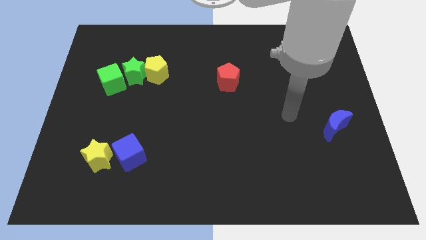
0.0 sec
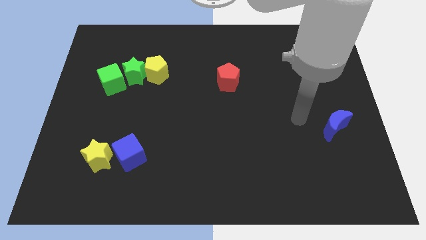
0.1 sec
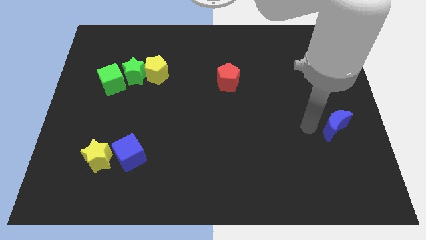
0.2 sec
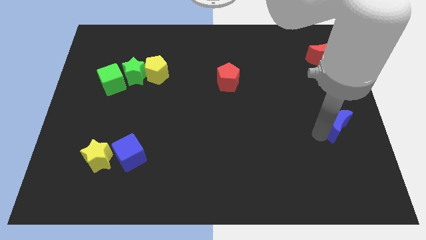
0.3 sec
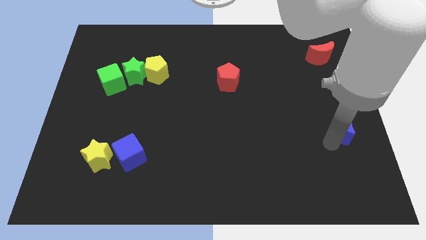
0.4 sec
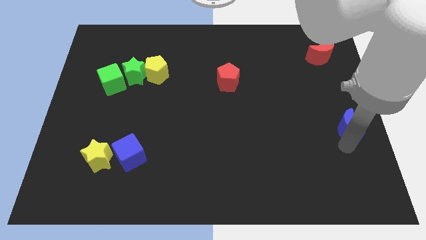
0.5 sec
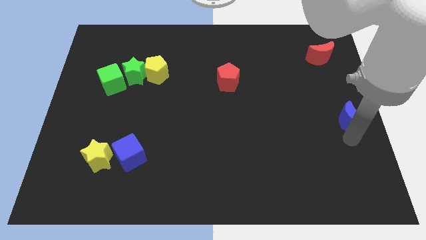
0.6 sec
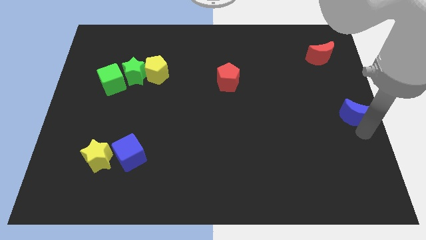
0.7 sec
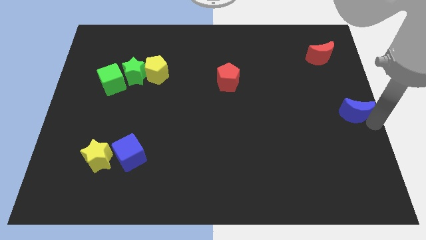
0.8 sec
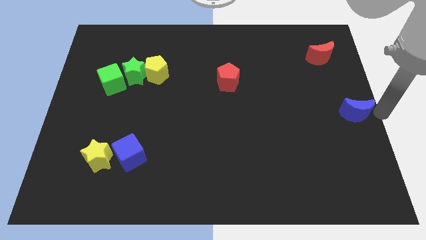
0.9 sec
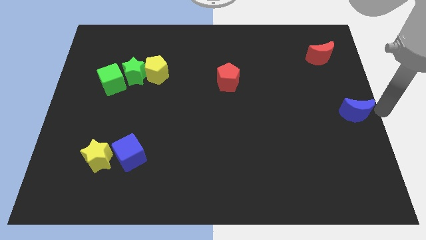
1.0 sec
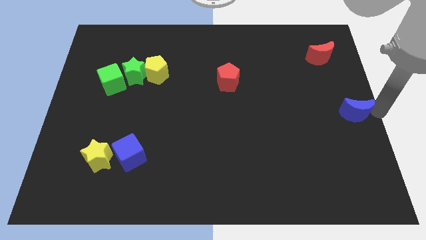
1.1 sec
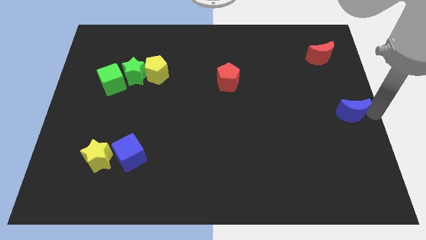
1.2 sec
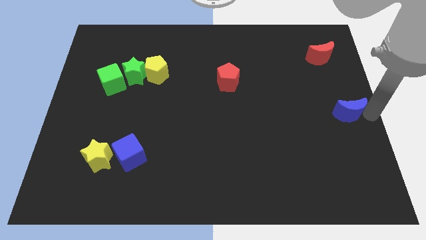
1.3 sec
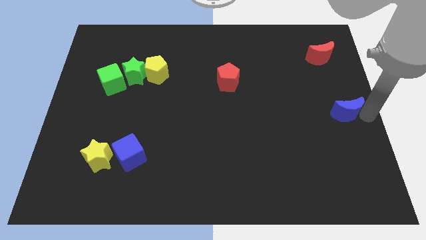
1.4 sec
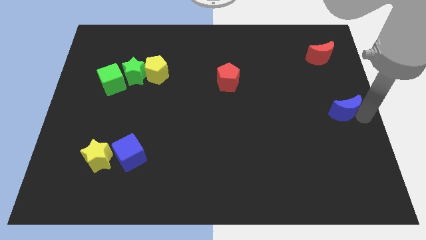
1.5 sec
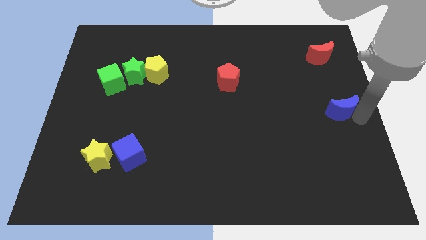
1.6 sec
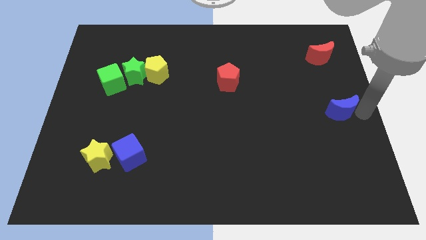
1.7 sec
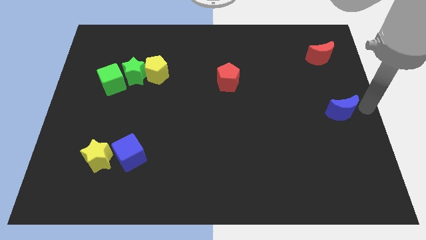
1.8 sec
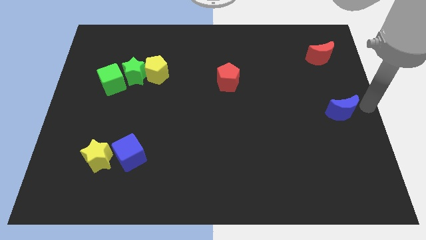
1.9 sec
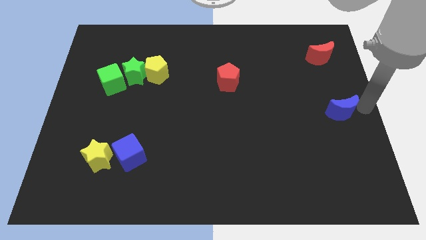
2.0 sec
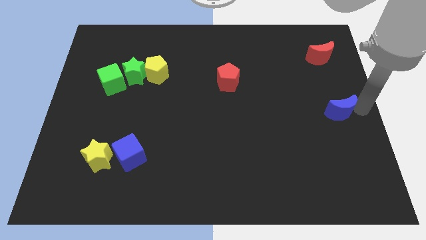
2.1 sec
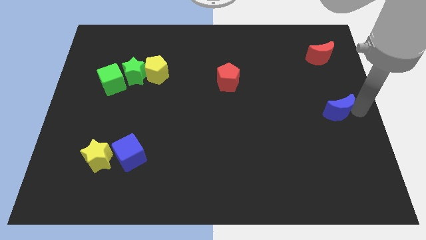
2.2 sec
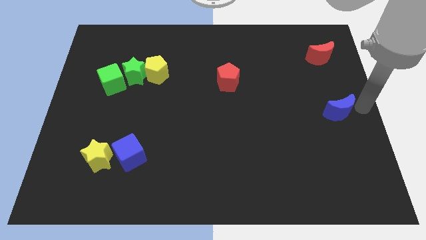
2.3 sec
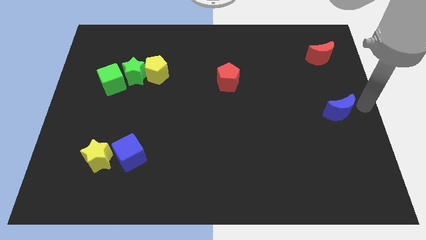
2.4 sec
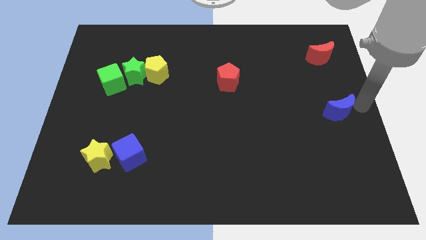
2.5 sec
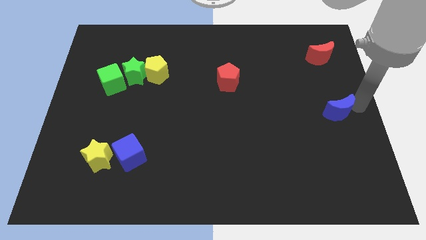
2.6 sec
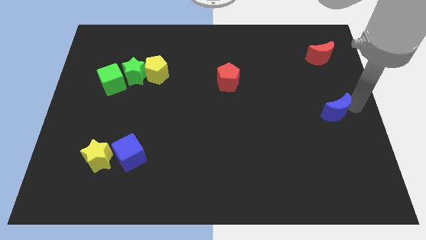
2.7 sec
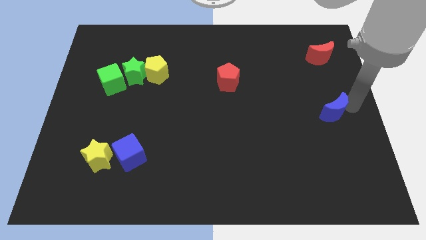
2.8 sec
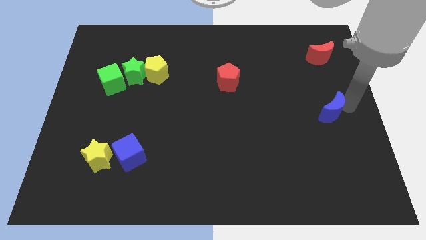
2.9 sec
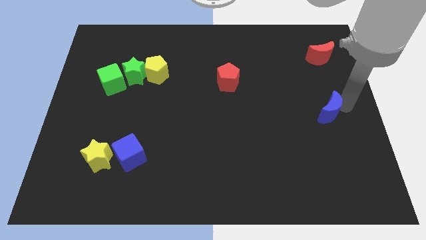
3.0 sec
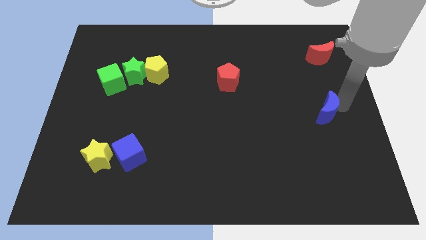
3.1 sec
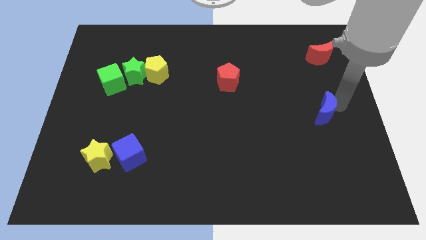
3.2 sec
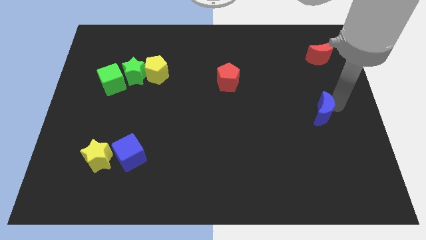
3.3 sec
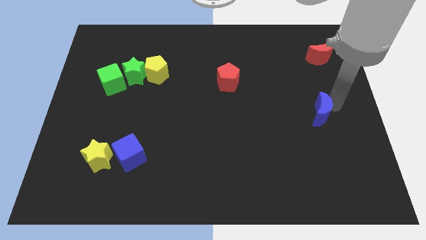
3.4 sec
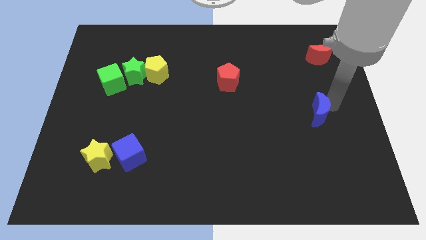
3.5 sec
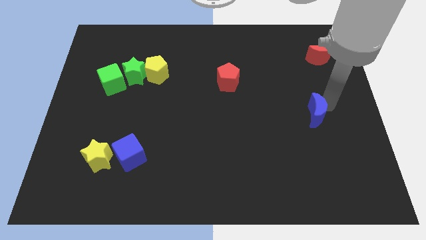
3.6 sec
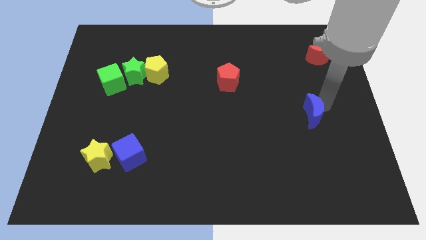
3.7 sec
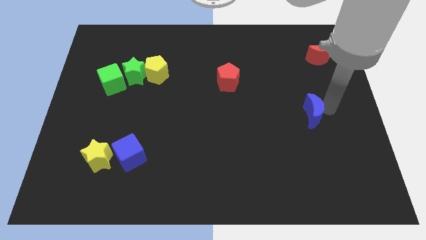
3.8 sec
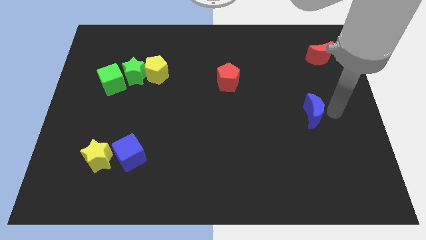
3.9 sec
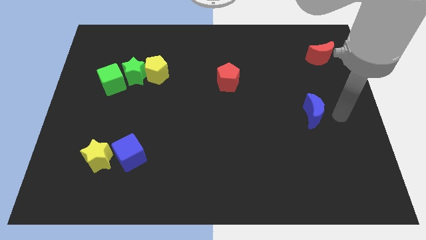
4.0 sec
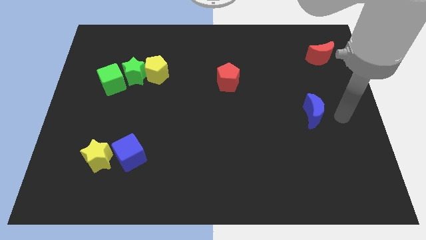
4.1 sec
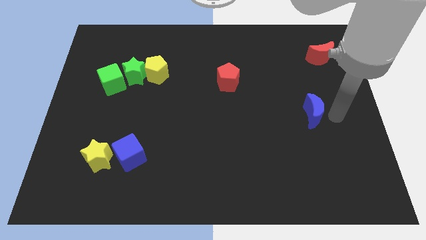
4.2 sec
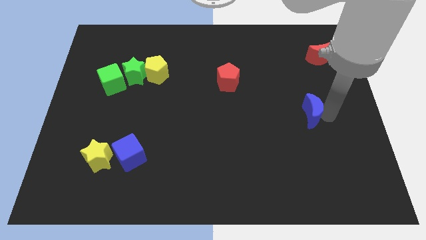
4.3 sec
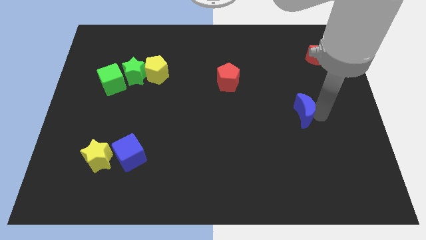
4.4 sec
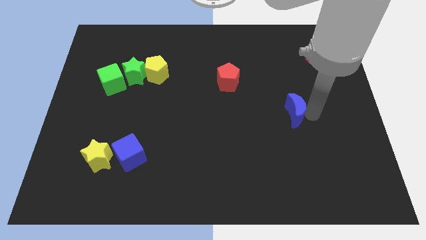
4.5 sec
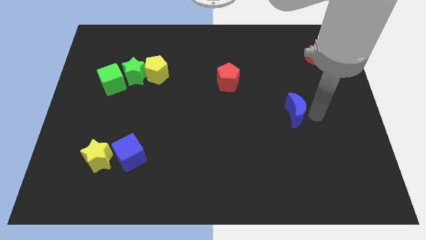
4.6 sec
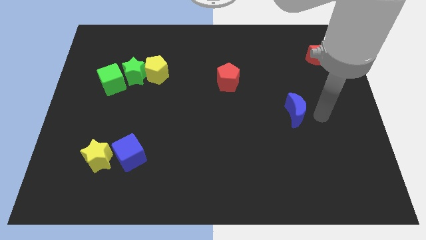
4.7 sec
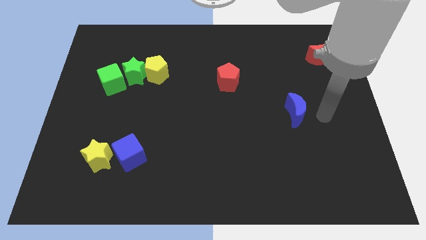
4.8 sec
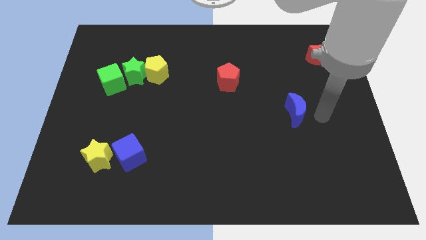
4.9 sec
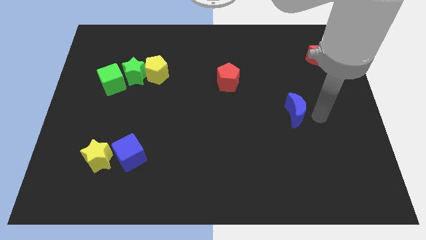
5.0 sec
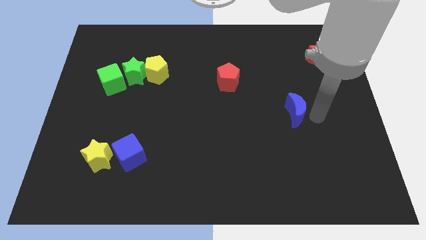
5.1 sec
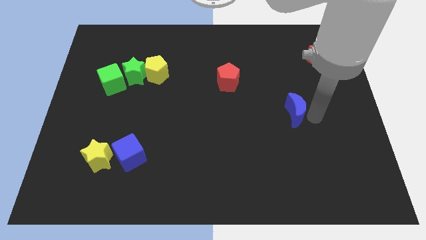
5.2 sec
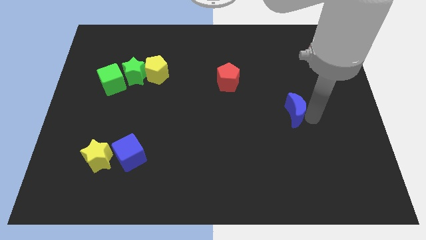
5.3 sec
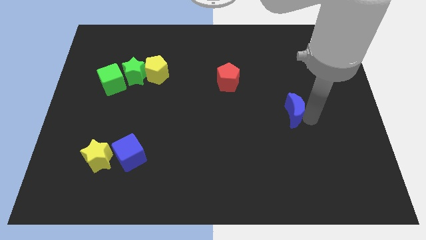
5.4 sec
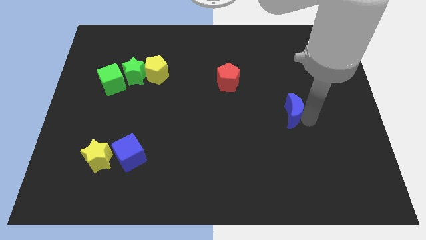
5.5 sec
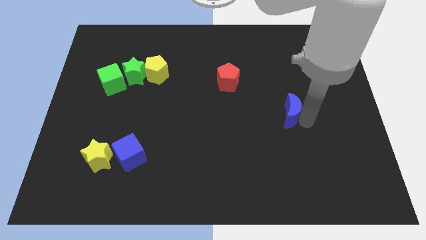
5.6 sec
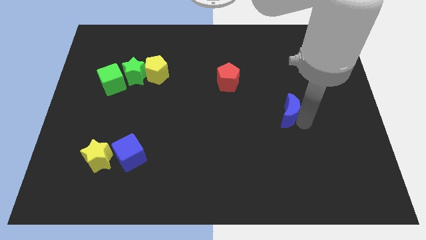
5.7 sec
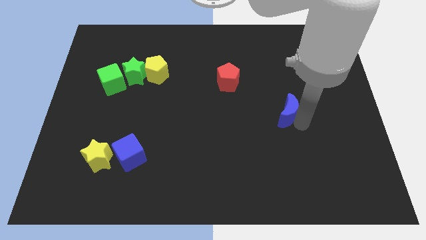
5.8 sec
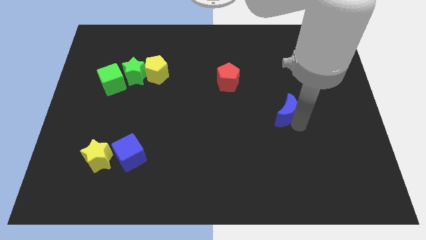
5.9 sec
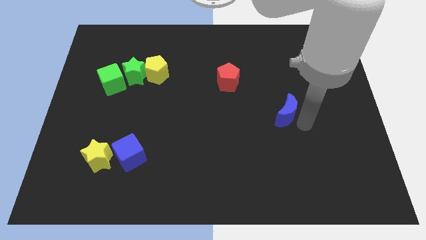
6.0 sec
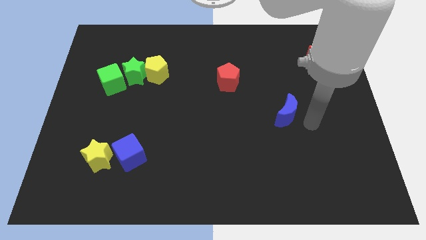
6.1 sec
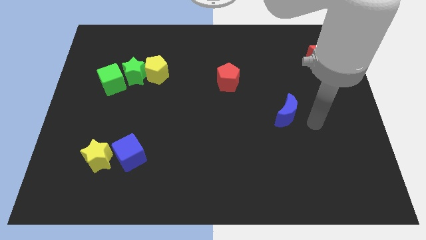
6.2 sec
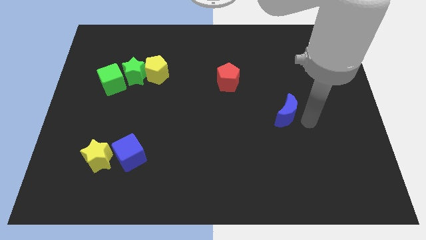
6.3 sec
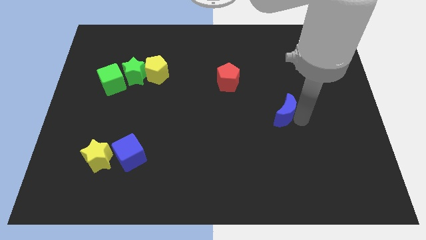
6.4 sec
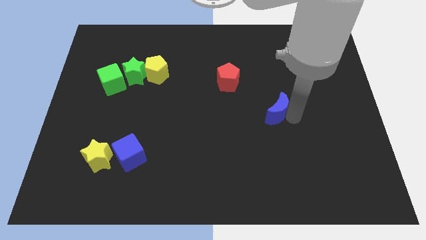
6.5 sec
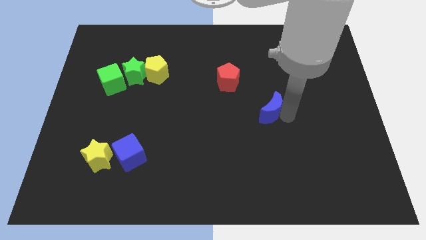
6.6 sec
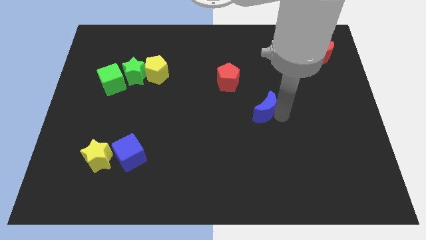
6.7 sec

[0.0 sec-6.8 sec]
push the blue moon to the middle
